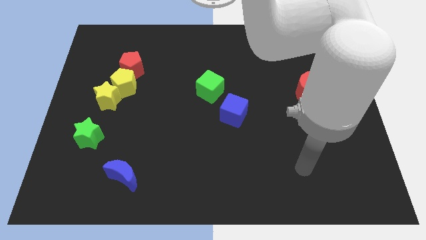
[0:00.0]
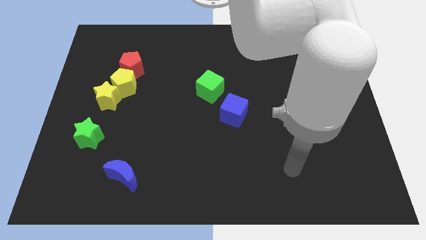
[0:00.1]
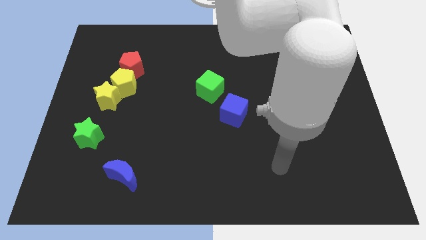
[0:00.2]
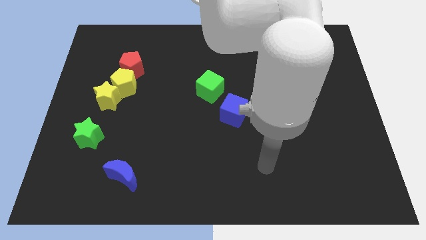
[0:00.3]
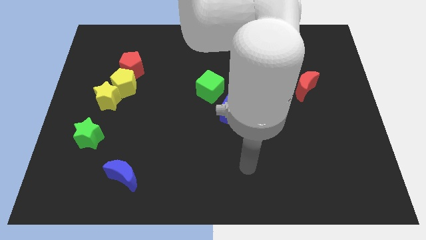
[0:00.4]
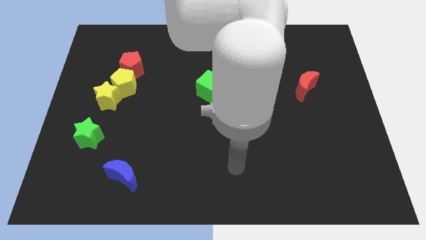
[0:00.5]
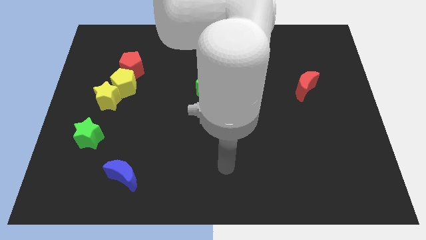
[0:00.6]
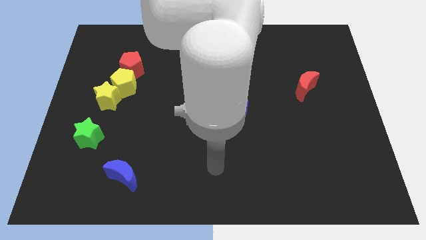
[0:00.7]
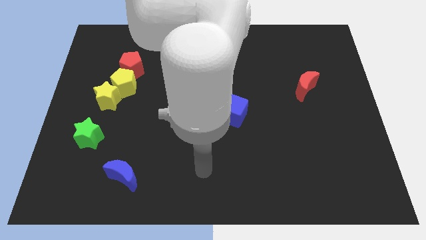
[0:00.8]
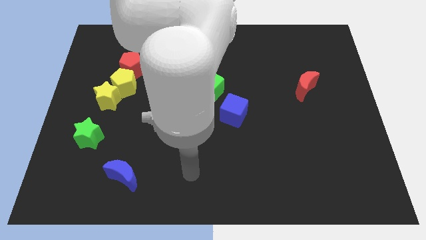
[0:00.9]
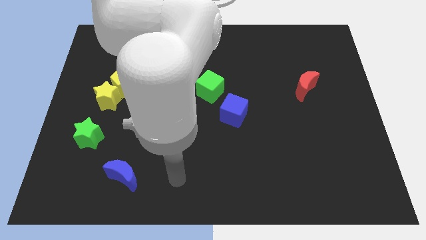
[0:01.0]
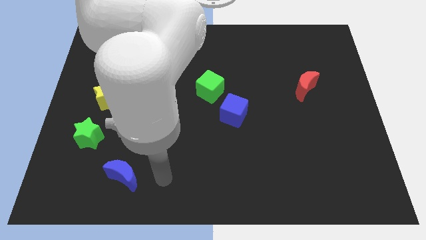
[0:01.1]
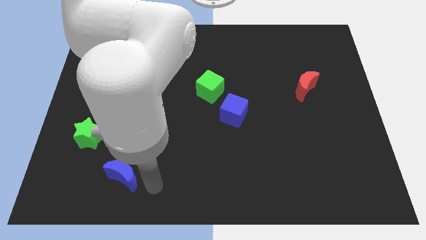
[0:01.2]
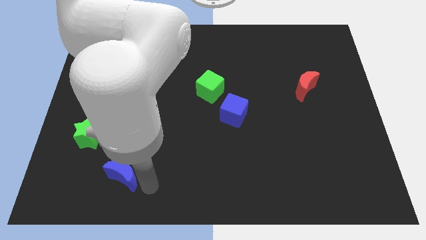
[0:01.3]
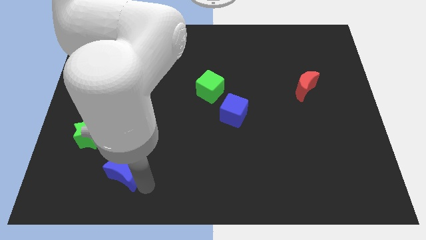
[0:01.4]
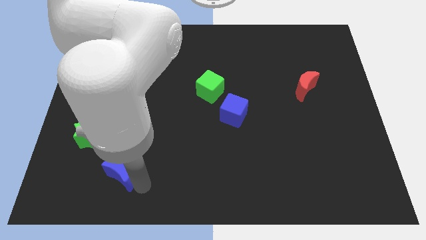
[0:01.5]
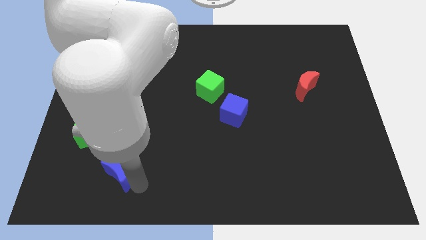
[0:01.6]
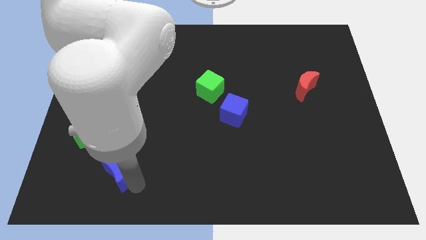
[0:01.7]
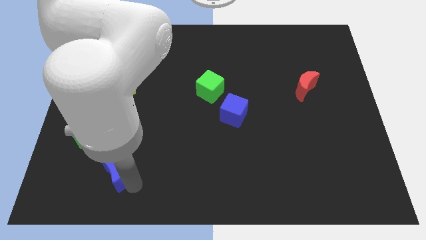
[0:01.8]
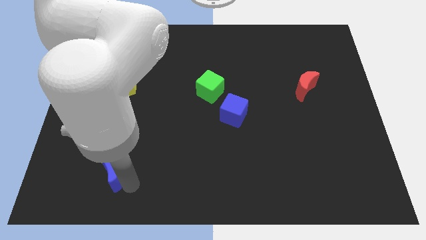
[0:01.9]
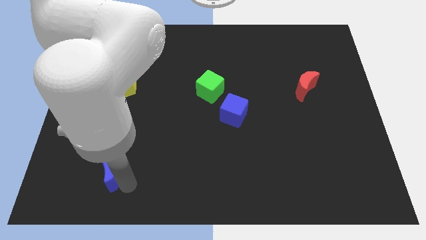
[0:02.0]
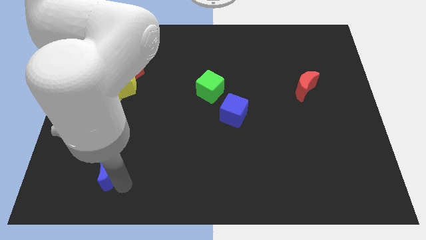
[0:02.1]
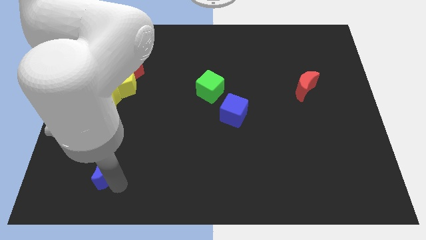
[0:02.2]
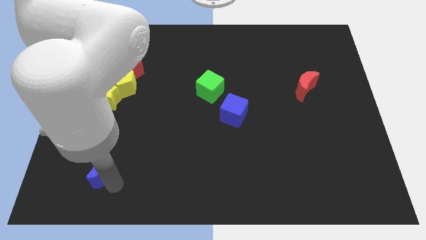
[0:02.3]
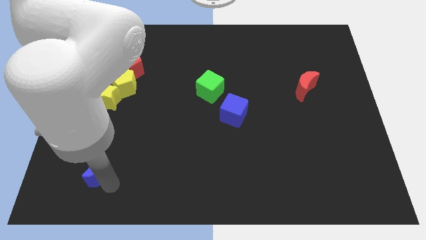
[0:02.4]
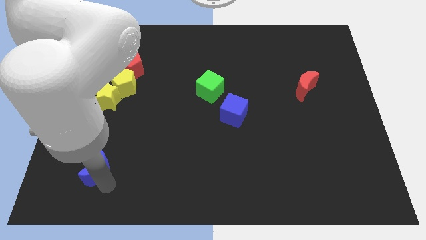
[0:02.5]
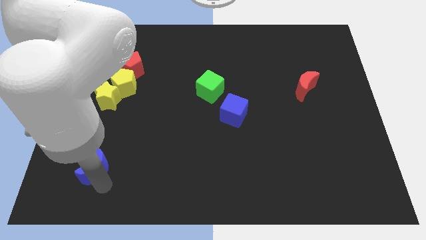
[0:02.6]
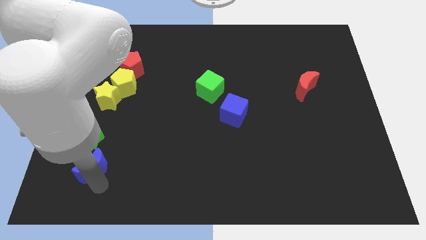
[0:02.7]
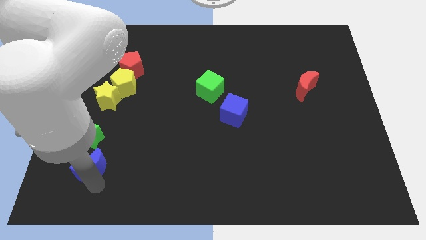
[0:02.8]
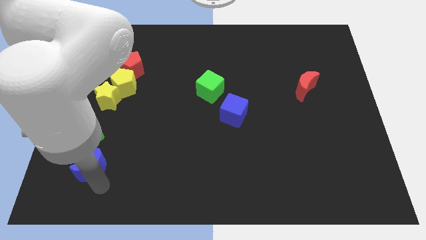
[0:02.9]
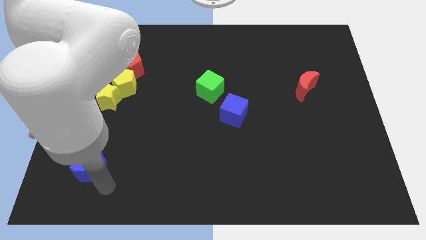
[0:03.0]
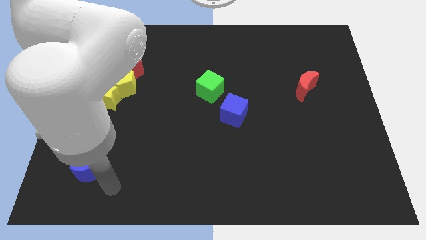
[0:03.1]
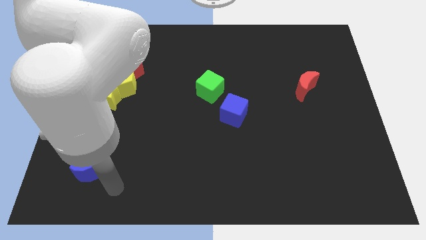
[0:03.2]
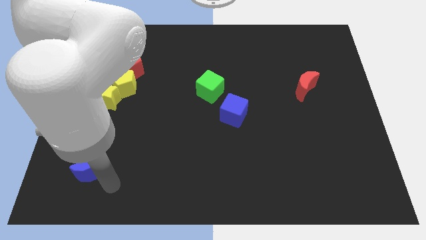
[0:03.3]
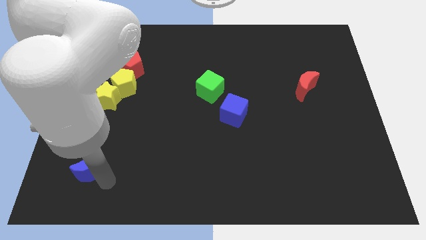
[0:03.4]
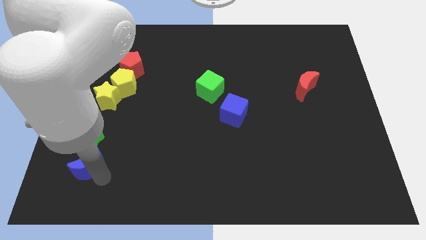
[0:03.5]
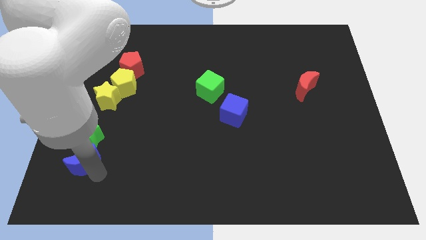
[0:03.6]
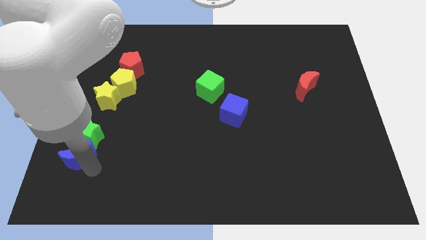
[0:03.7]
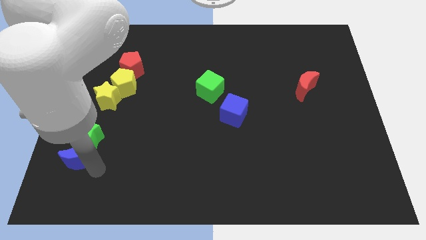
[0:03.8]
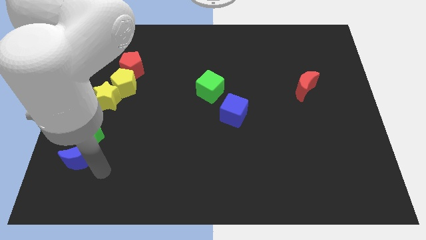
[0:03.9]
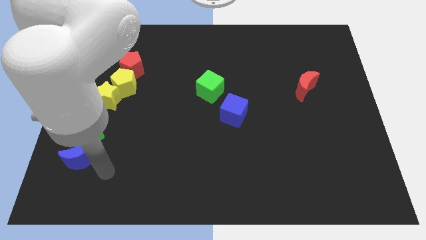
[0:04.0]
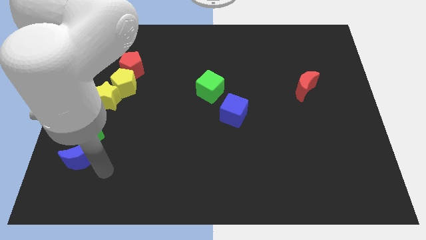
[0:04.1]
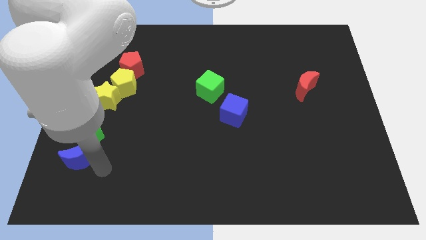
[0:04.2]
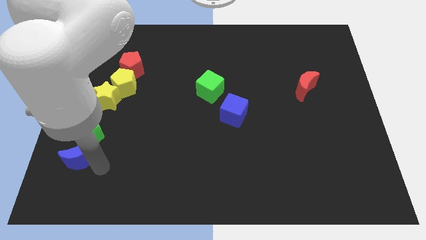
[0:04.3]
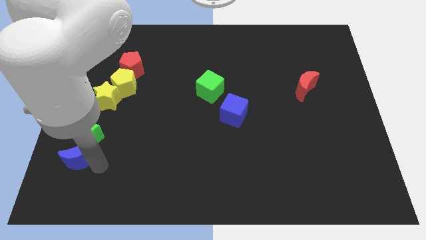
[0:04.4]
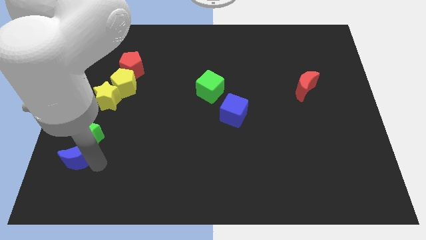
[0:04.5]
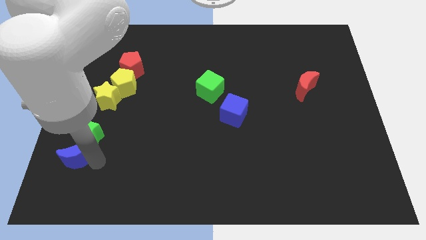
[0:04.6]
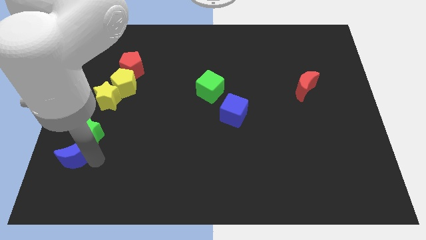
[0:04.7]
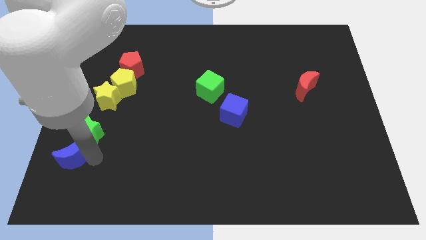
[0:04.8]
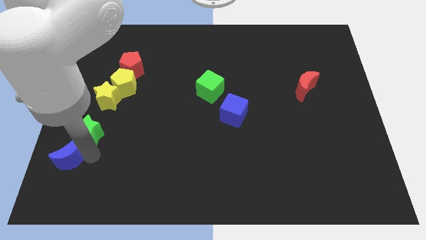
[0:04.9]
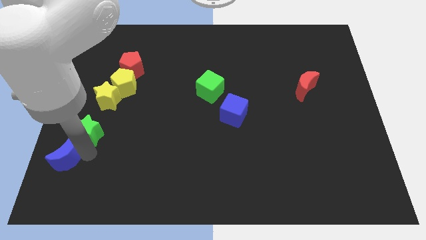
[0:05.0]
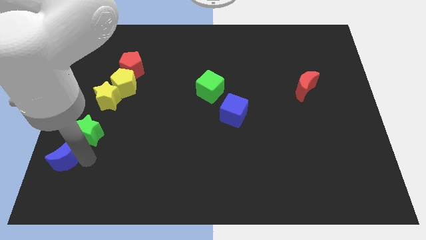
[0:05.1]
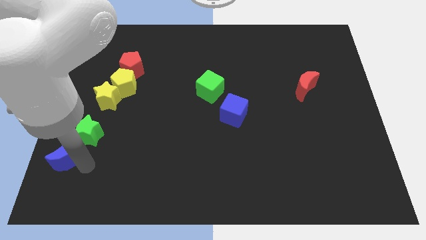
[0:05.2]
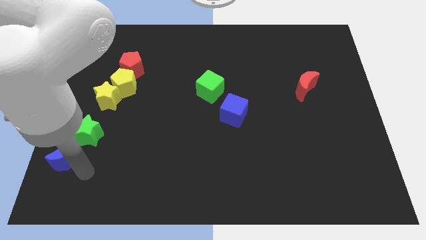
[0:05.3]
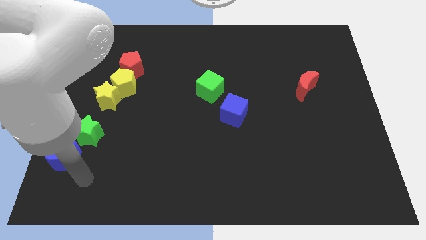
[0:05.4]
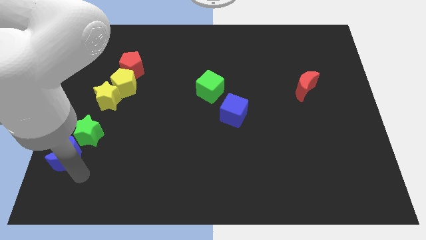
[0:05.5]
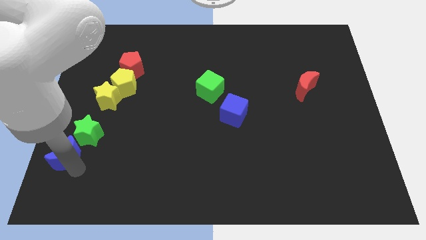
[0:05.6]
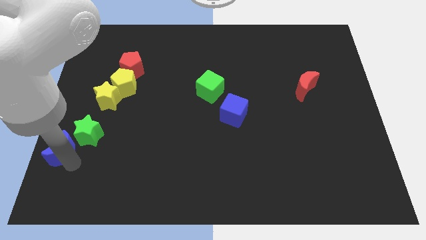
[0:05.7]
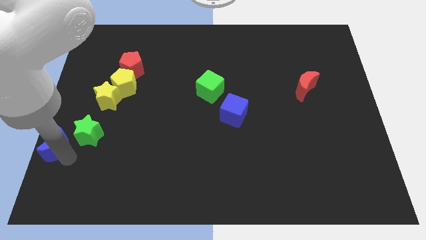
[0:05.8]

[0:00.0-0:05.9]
move the blue moon to the left side of the board
